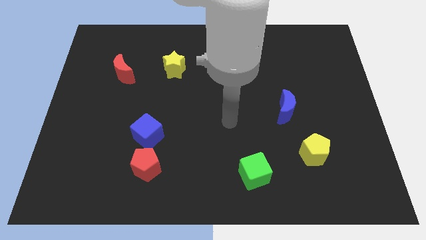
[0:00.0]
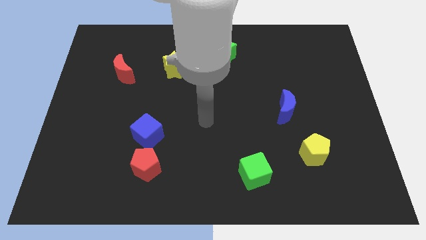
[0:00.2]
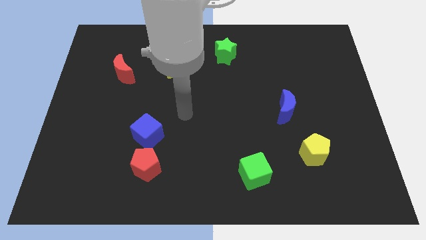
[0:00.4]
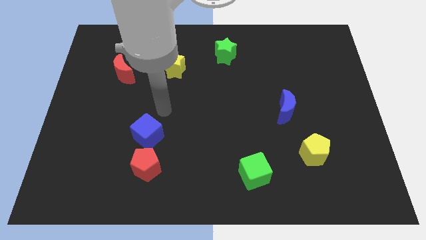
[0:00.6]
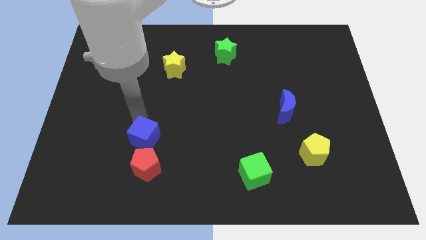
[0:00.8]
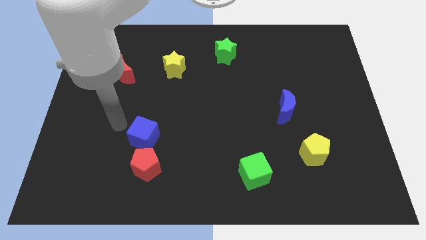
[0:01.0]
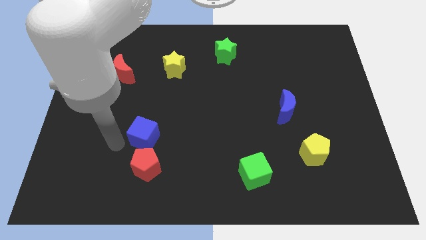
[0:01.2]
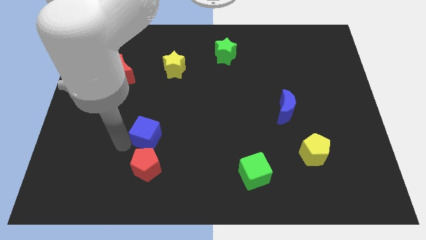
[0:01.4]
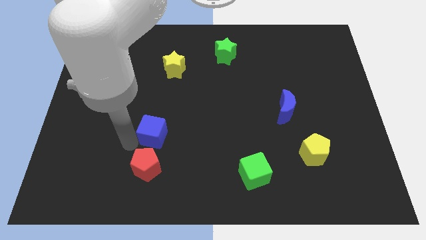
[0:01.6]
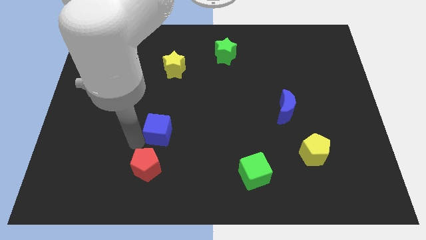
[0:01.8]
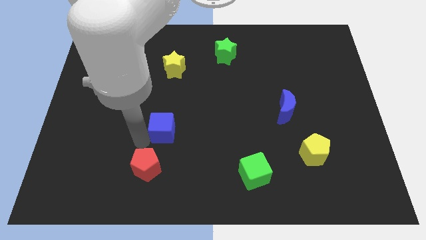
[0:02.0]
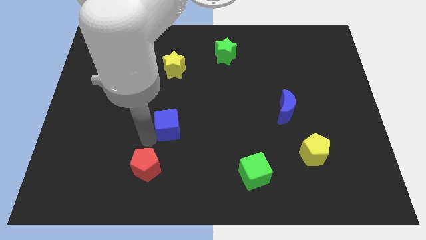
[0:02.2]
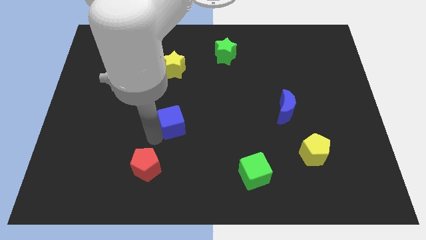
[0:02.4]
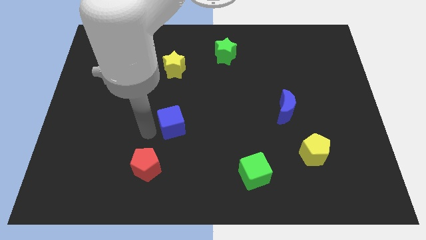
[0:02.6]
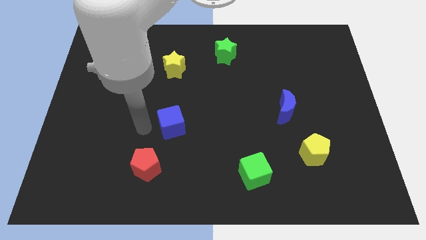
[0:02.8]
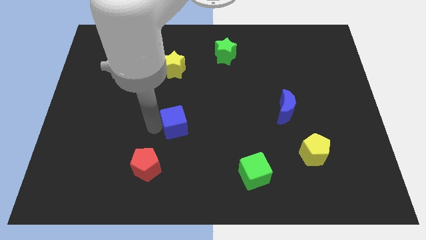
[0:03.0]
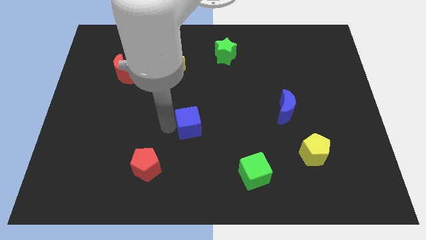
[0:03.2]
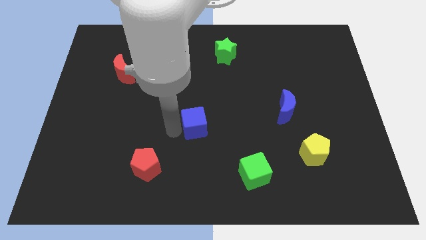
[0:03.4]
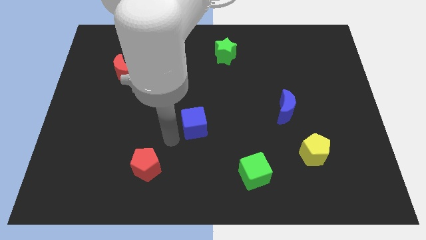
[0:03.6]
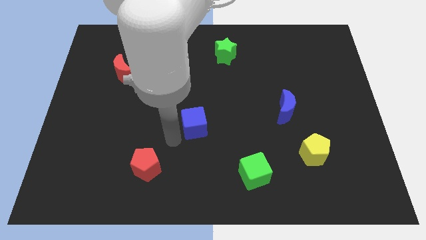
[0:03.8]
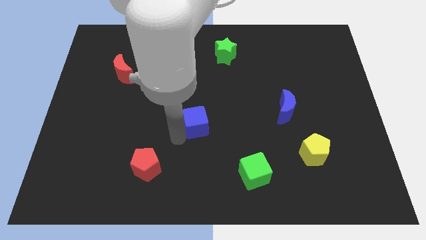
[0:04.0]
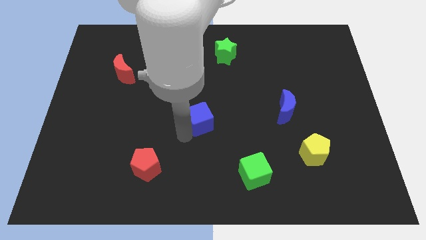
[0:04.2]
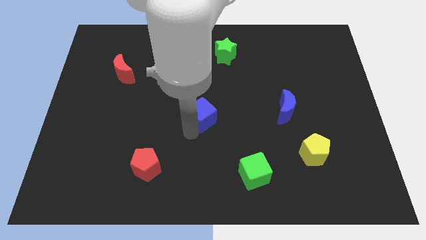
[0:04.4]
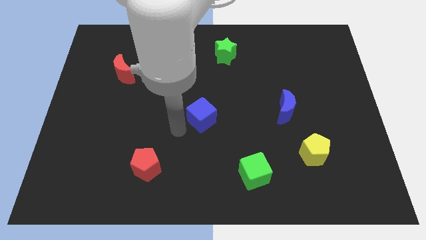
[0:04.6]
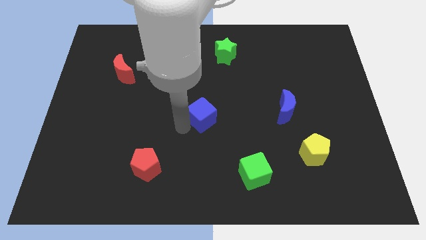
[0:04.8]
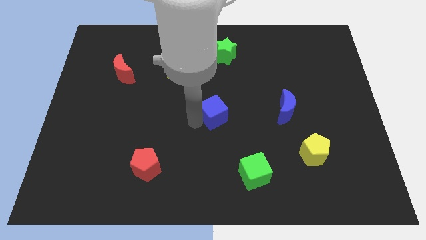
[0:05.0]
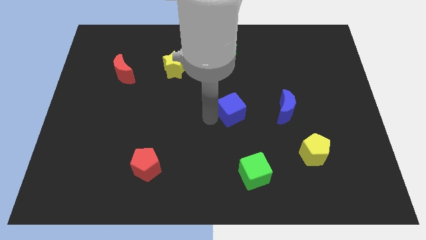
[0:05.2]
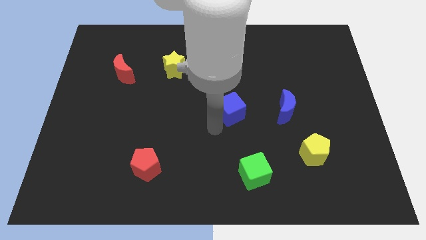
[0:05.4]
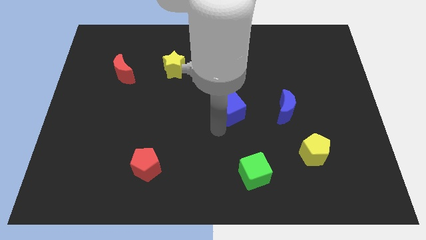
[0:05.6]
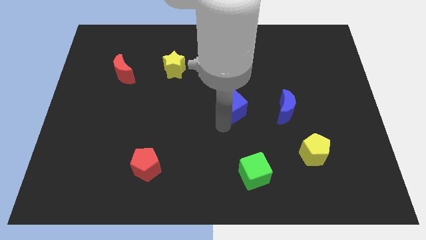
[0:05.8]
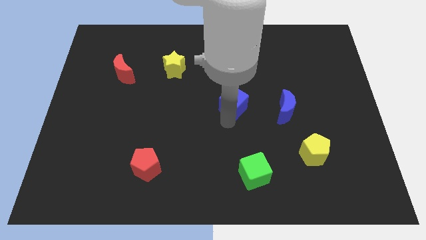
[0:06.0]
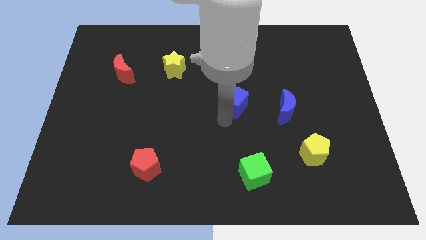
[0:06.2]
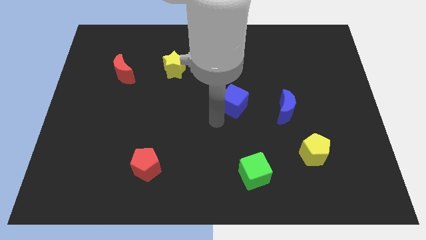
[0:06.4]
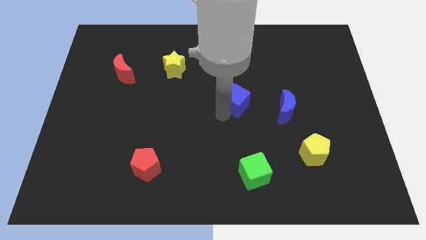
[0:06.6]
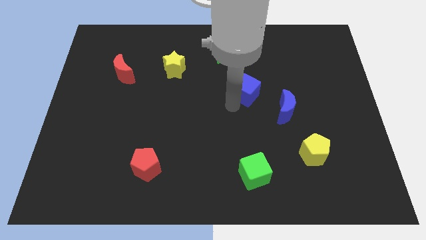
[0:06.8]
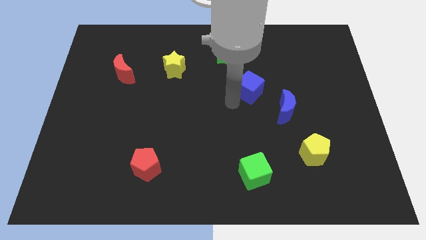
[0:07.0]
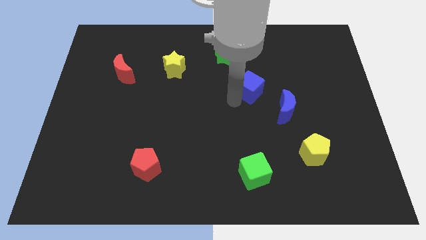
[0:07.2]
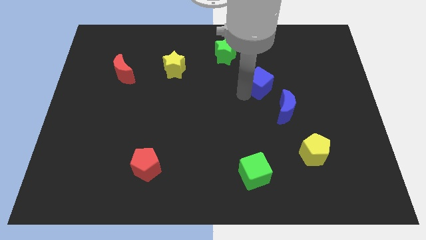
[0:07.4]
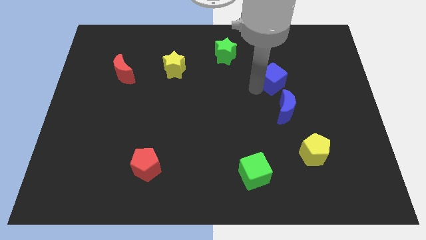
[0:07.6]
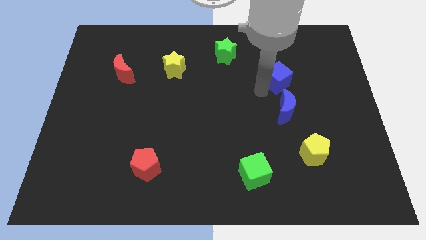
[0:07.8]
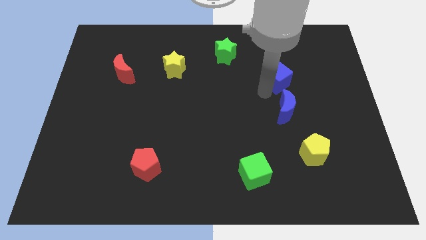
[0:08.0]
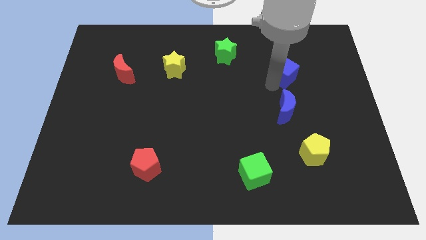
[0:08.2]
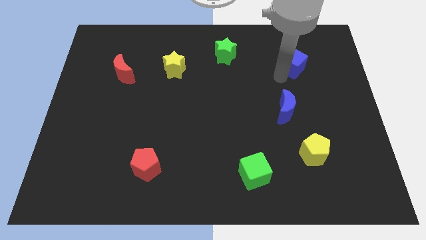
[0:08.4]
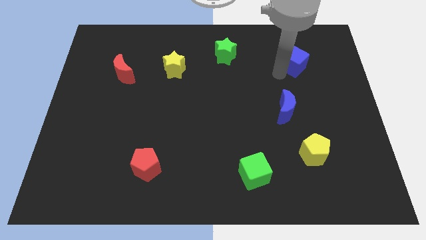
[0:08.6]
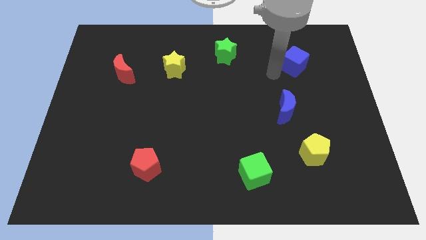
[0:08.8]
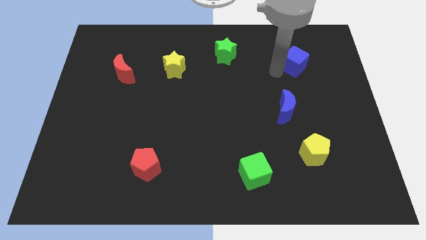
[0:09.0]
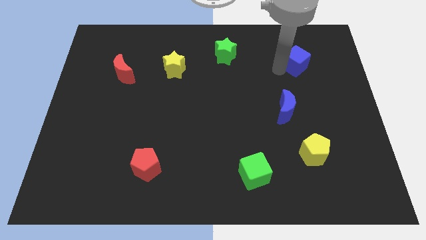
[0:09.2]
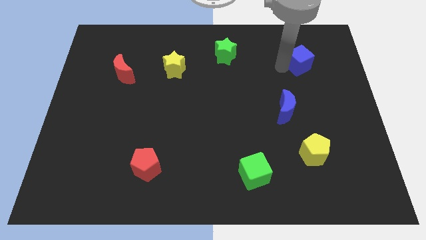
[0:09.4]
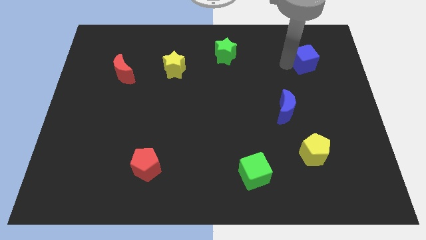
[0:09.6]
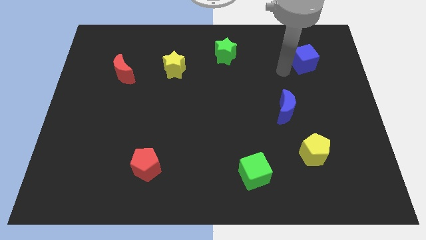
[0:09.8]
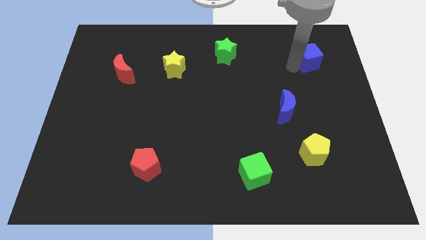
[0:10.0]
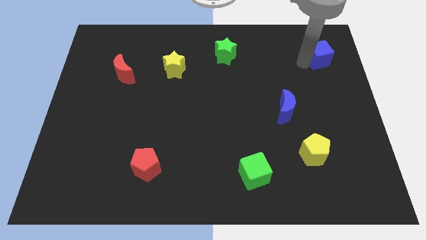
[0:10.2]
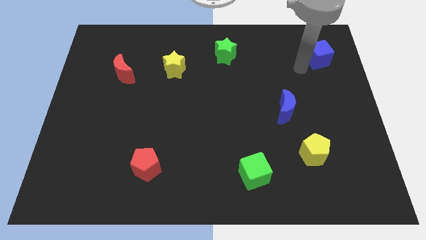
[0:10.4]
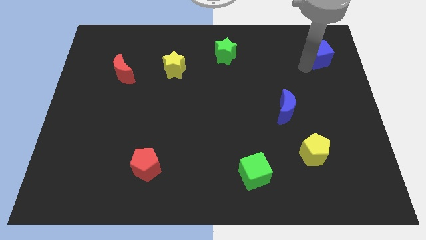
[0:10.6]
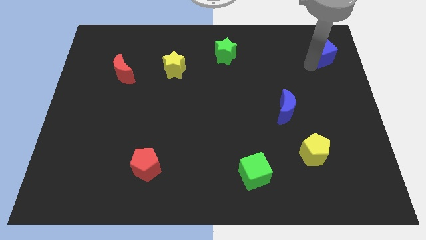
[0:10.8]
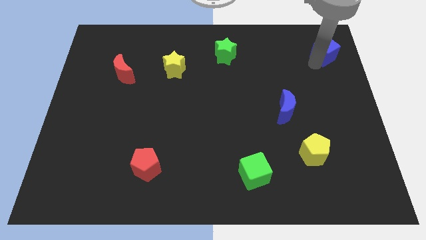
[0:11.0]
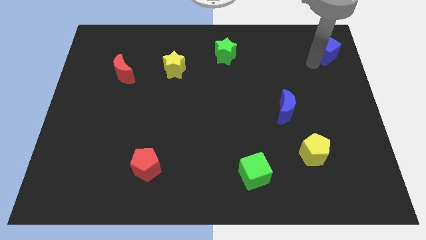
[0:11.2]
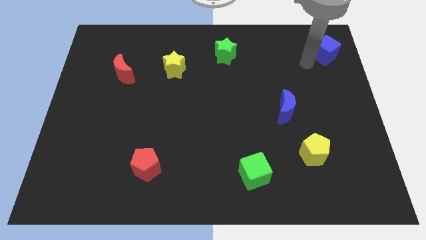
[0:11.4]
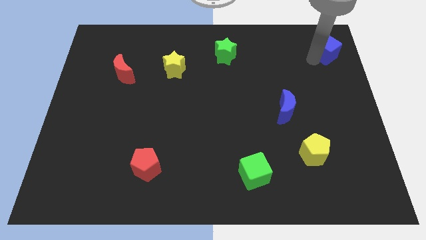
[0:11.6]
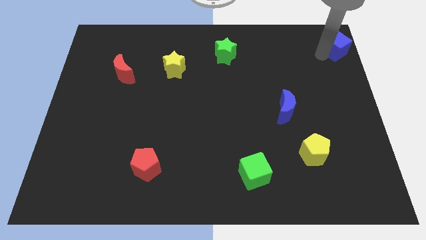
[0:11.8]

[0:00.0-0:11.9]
put the blue cube to the top right

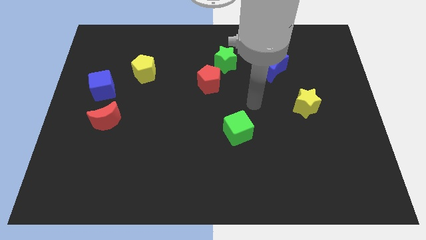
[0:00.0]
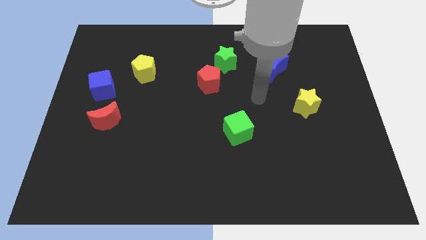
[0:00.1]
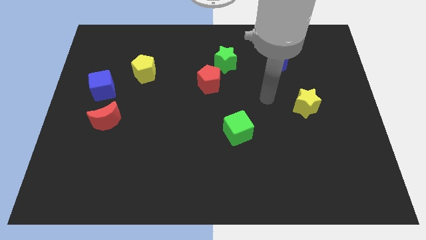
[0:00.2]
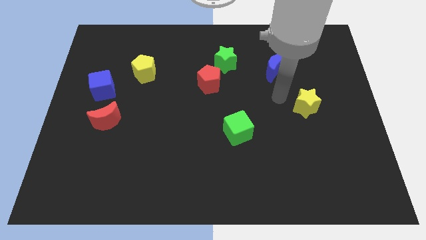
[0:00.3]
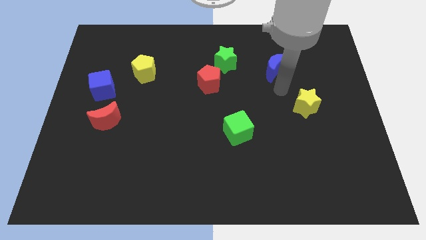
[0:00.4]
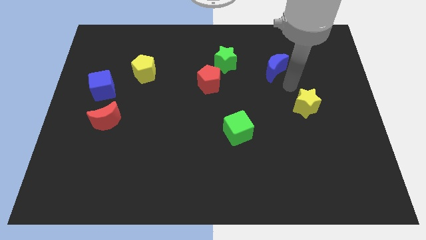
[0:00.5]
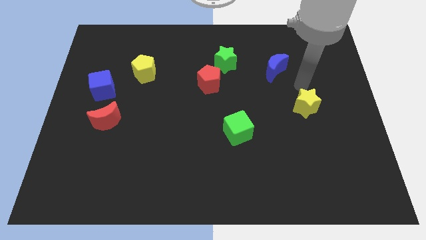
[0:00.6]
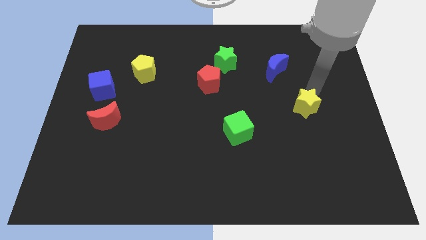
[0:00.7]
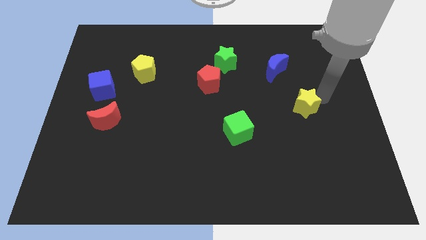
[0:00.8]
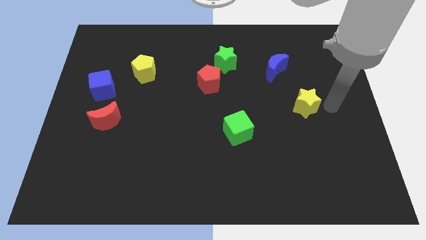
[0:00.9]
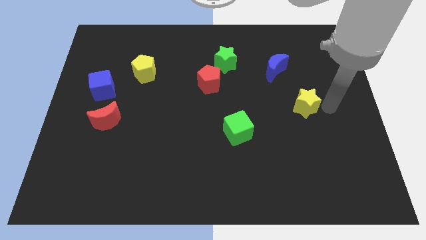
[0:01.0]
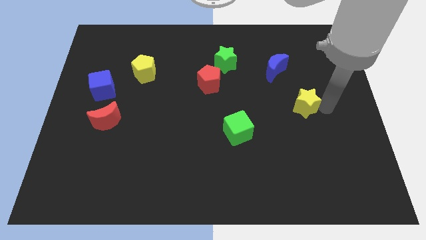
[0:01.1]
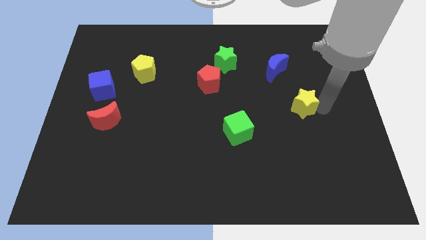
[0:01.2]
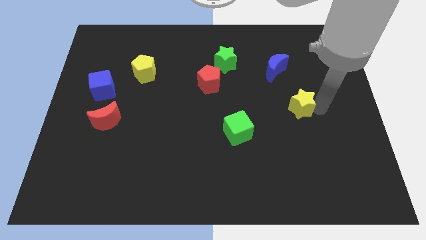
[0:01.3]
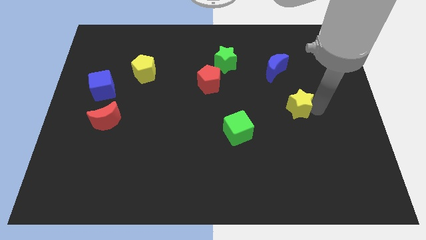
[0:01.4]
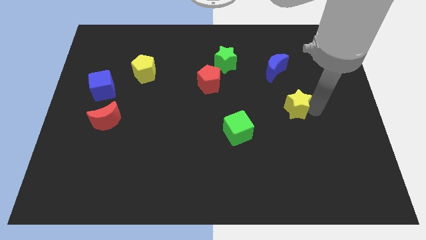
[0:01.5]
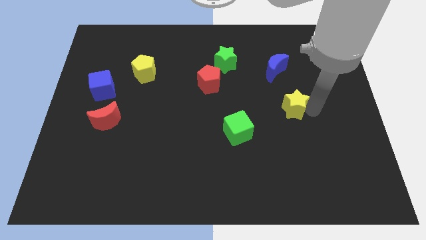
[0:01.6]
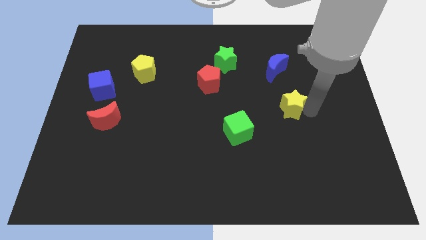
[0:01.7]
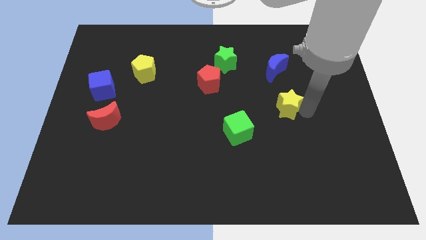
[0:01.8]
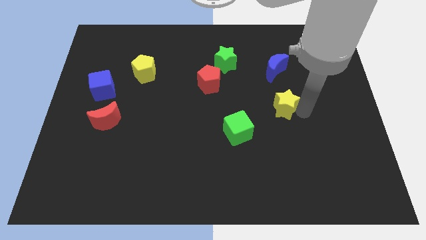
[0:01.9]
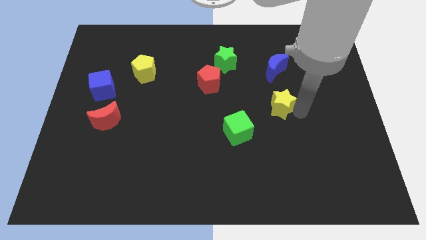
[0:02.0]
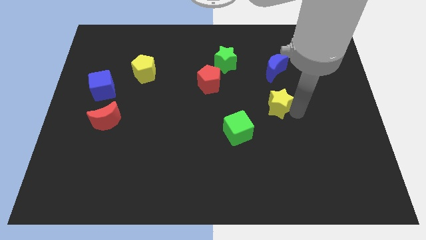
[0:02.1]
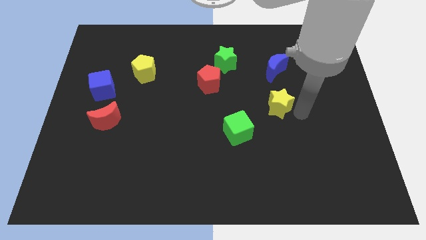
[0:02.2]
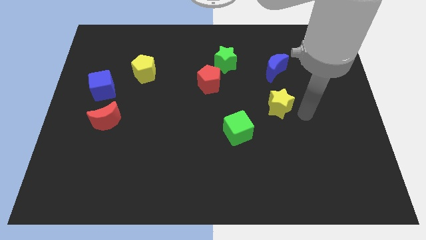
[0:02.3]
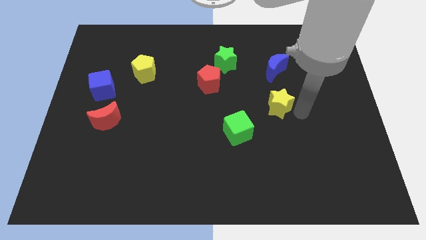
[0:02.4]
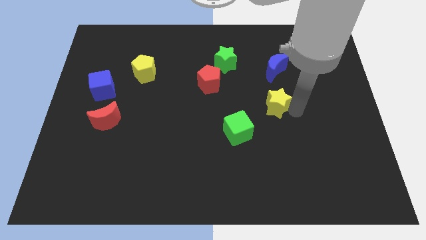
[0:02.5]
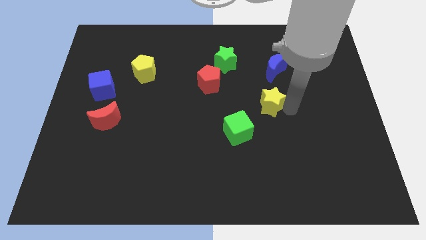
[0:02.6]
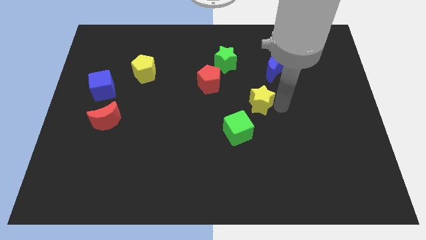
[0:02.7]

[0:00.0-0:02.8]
put the yellow star to the middle
